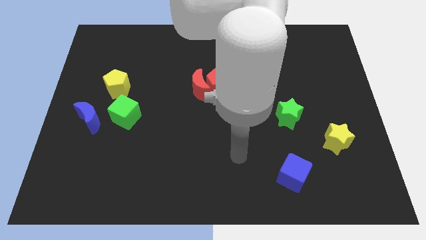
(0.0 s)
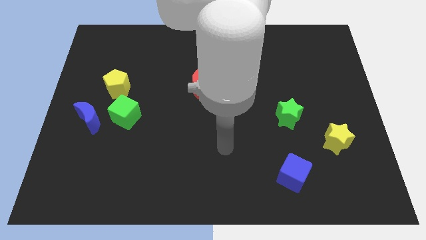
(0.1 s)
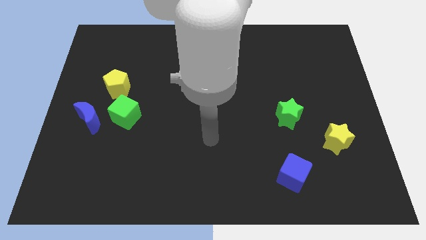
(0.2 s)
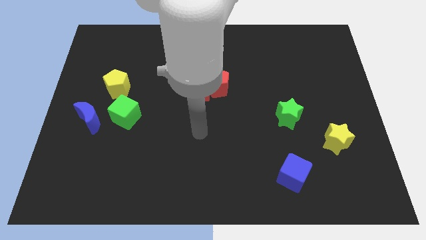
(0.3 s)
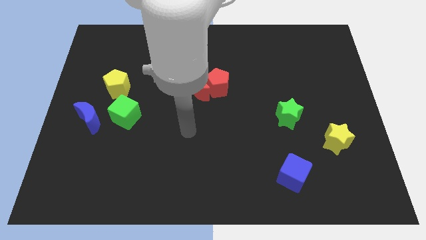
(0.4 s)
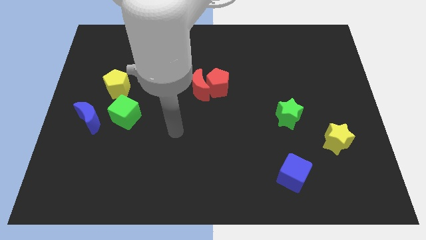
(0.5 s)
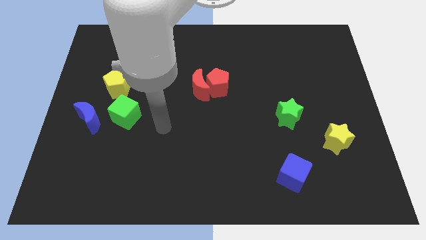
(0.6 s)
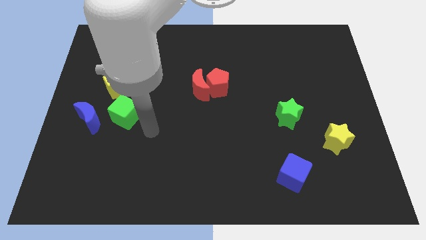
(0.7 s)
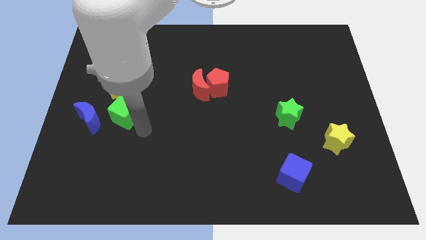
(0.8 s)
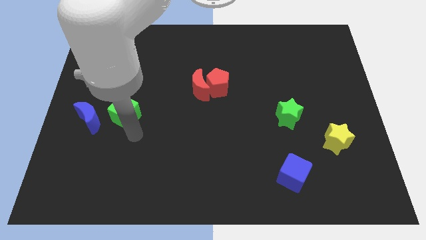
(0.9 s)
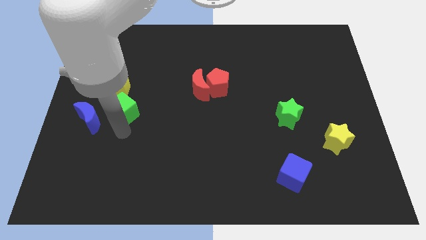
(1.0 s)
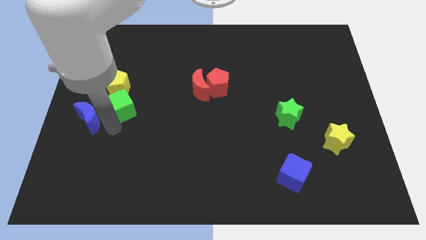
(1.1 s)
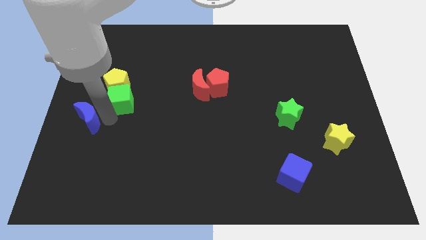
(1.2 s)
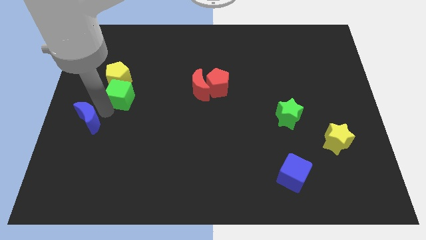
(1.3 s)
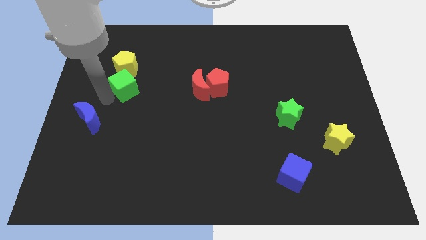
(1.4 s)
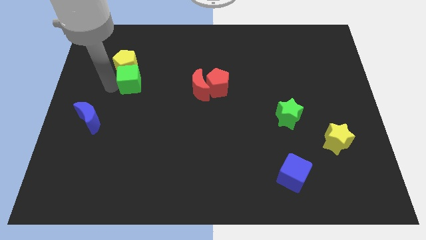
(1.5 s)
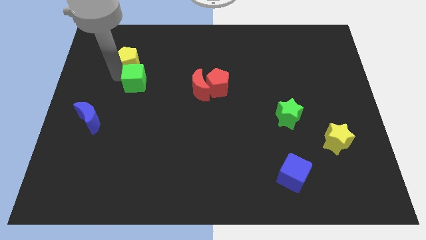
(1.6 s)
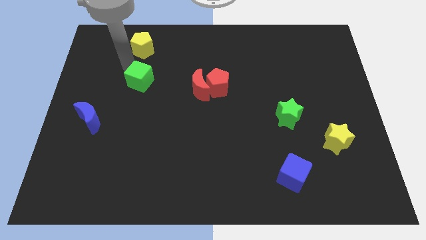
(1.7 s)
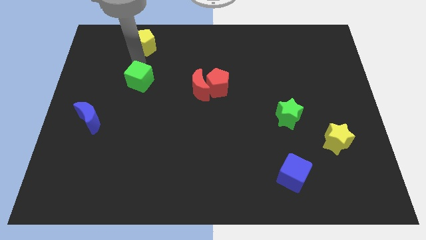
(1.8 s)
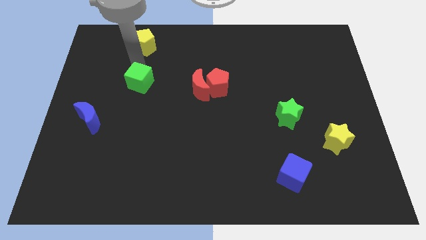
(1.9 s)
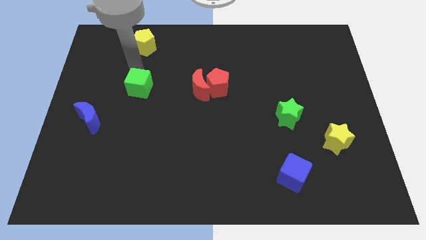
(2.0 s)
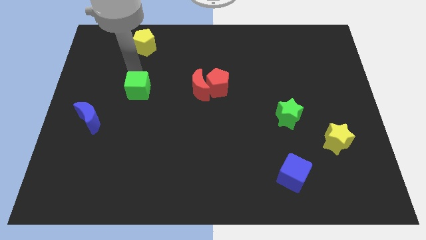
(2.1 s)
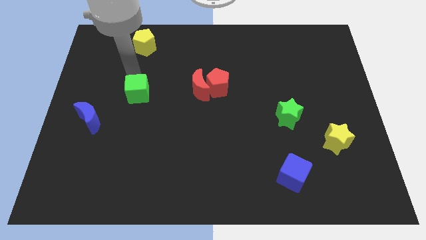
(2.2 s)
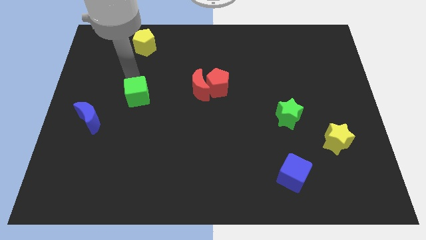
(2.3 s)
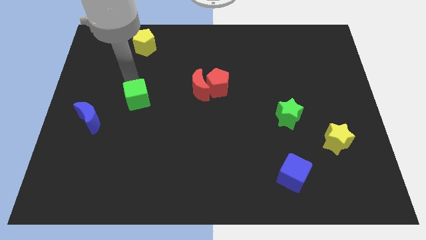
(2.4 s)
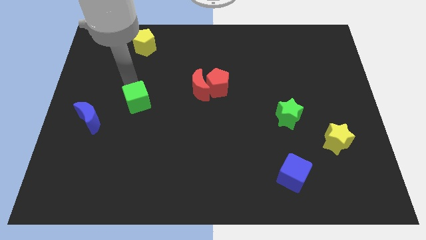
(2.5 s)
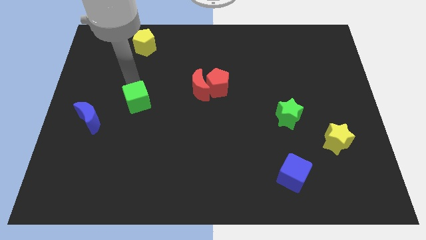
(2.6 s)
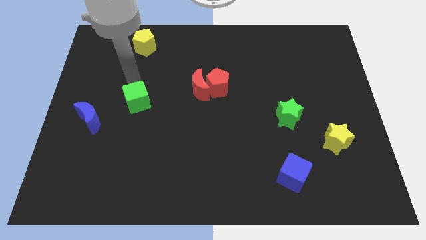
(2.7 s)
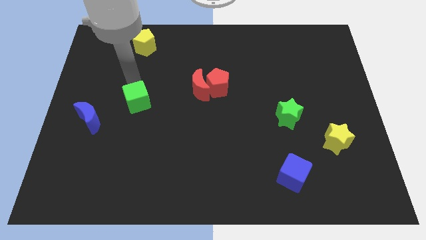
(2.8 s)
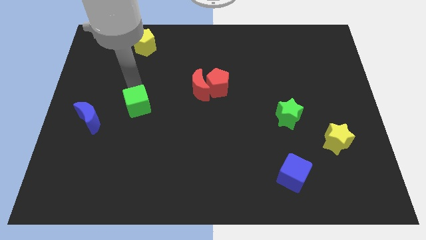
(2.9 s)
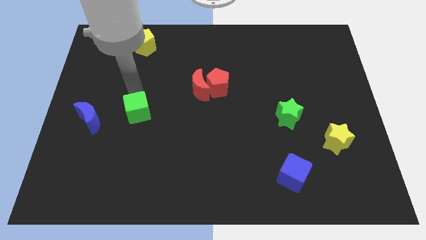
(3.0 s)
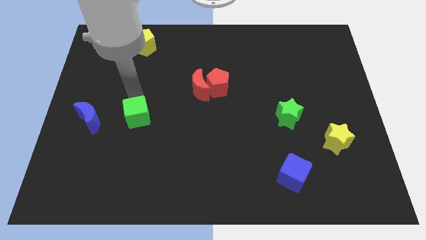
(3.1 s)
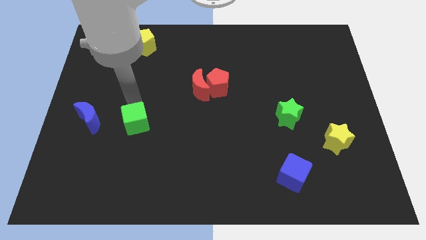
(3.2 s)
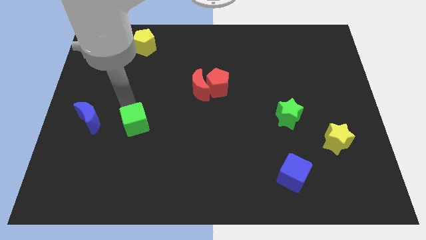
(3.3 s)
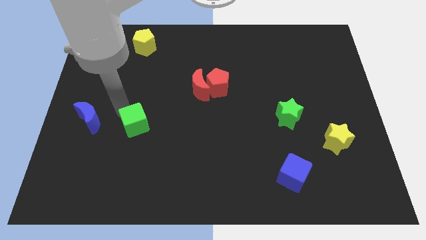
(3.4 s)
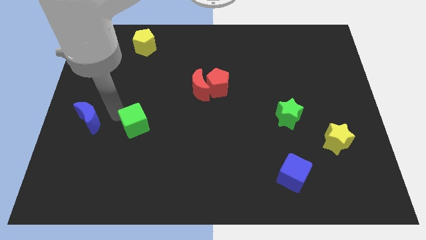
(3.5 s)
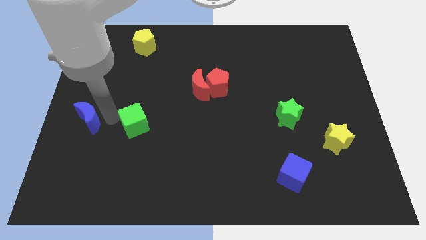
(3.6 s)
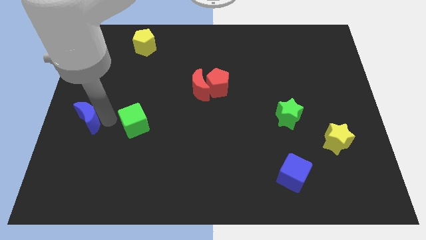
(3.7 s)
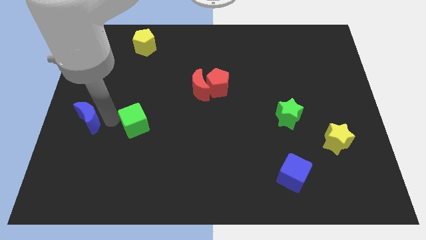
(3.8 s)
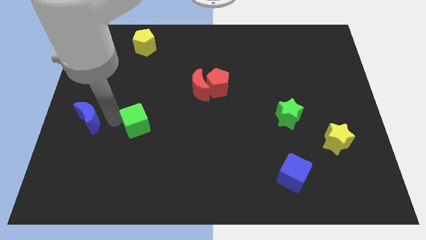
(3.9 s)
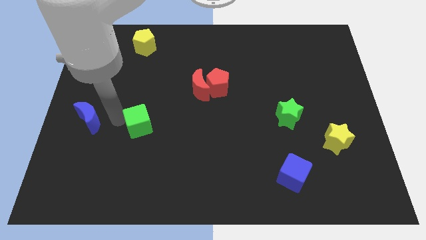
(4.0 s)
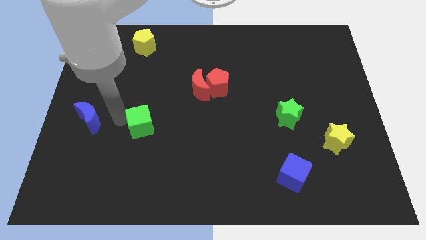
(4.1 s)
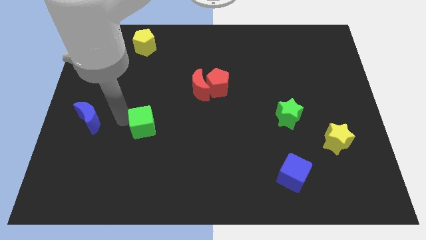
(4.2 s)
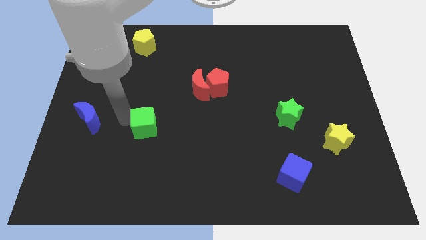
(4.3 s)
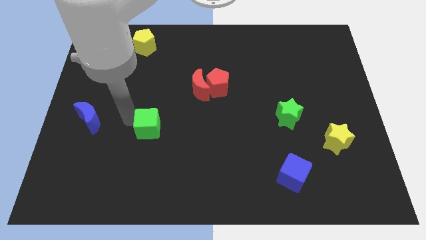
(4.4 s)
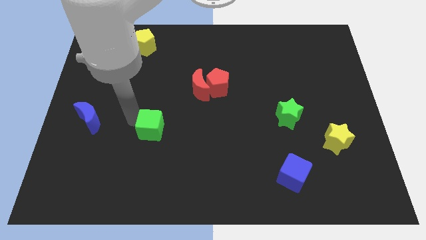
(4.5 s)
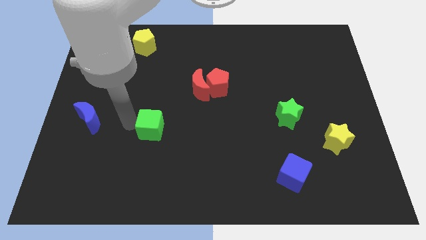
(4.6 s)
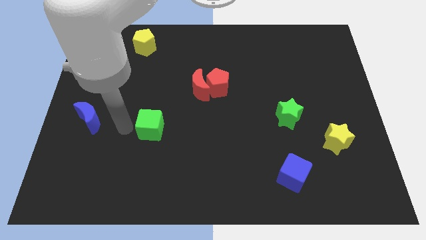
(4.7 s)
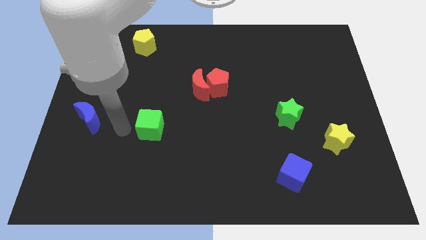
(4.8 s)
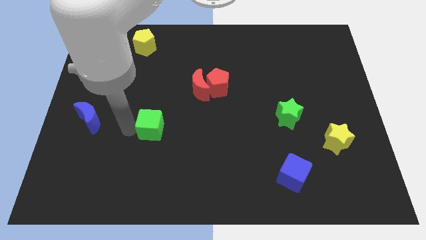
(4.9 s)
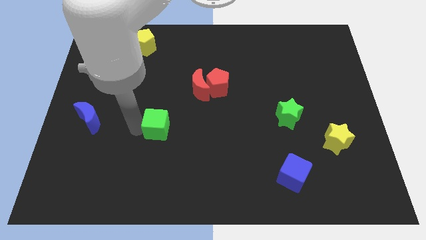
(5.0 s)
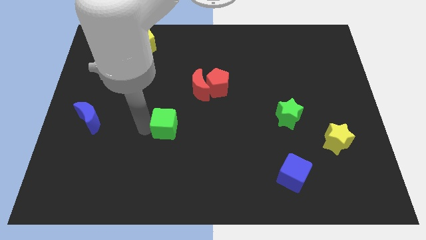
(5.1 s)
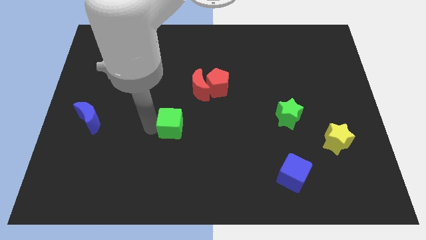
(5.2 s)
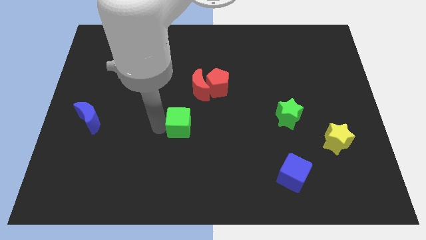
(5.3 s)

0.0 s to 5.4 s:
push the green cube below the red moon

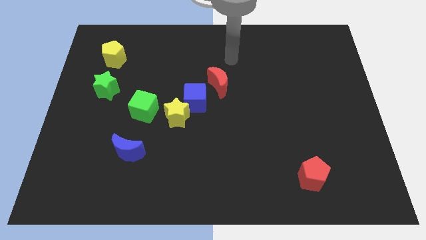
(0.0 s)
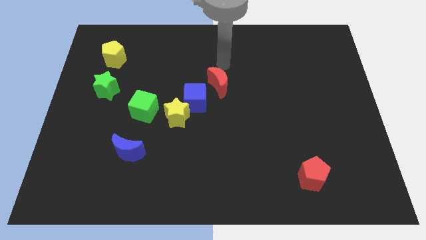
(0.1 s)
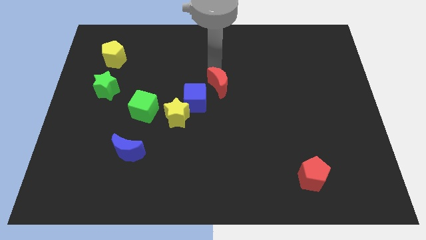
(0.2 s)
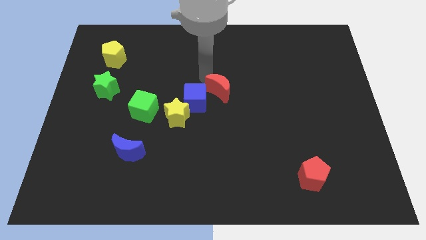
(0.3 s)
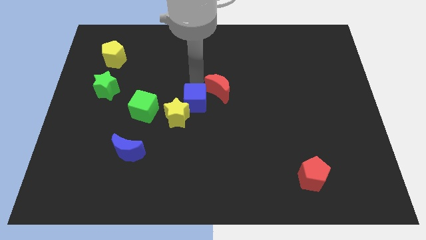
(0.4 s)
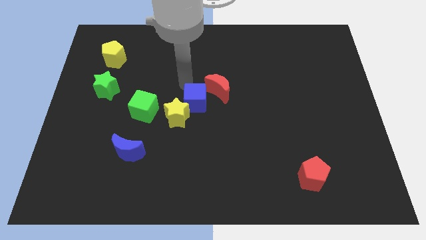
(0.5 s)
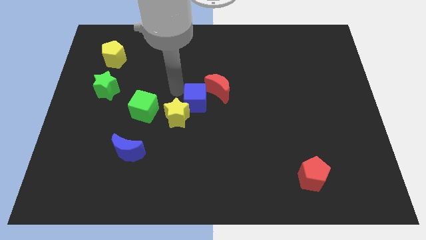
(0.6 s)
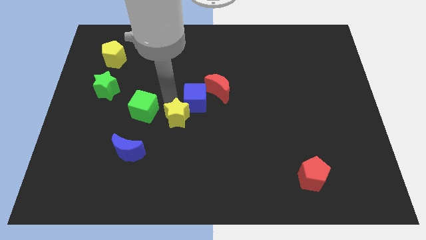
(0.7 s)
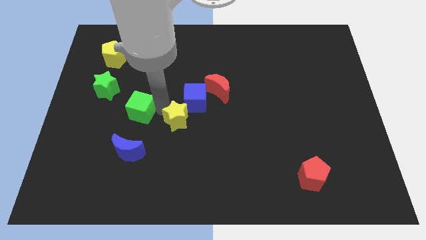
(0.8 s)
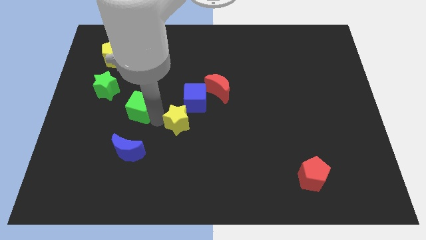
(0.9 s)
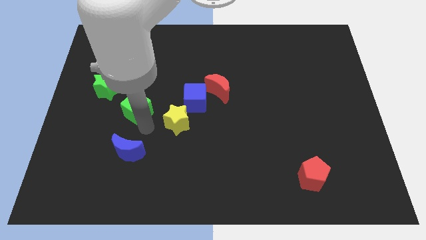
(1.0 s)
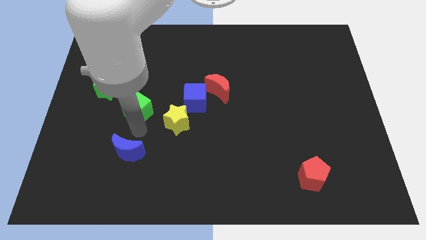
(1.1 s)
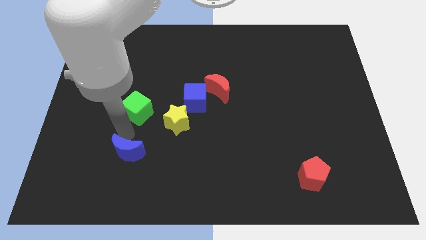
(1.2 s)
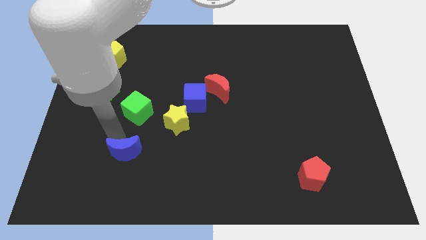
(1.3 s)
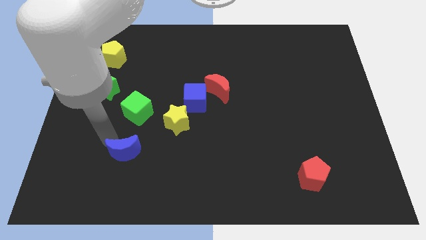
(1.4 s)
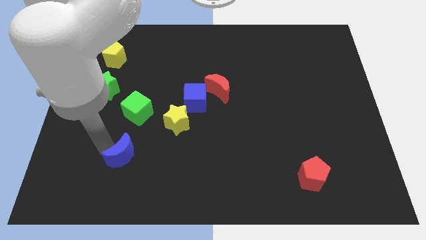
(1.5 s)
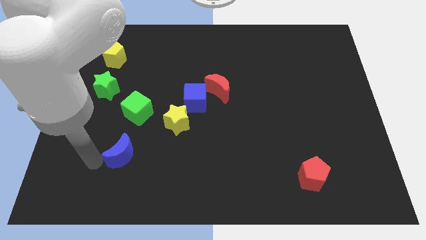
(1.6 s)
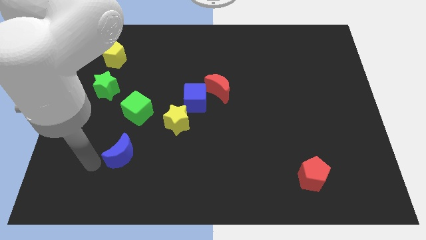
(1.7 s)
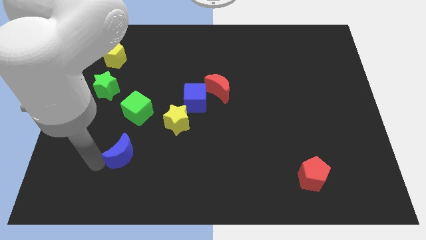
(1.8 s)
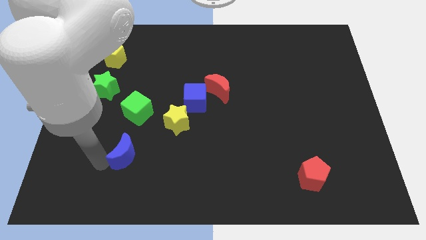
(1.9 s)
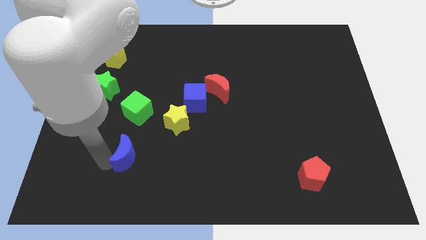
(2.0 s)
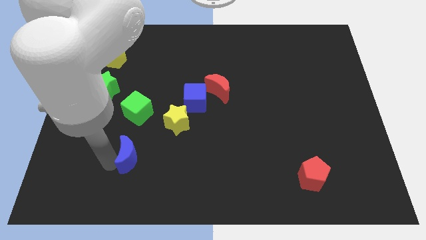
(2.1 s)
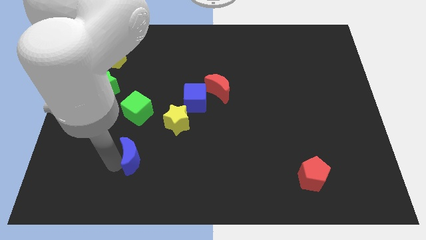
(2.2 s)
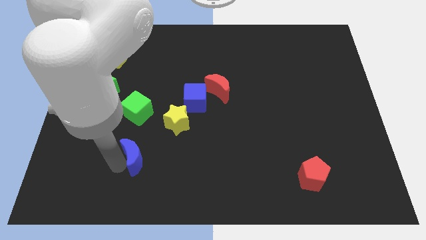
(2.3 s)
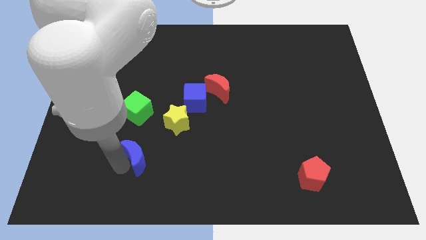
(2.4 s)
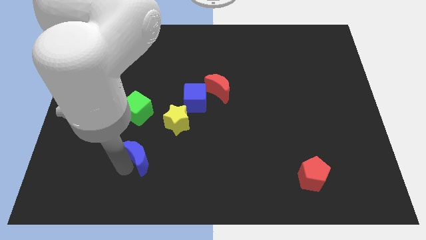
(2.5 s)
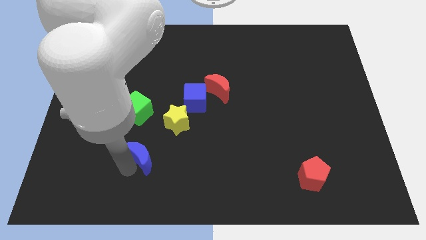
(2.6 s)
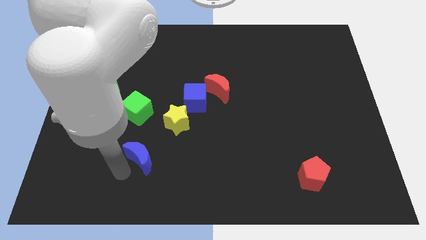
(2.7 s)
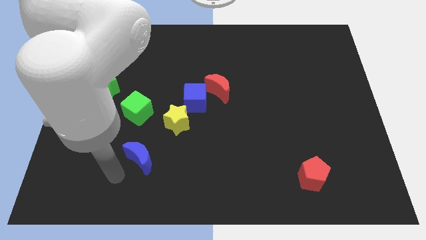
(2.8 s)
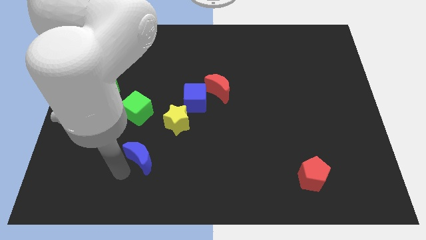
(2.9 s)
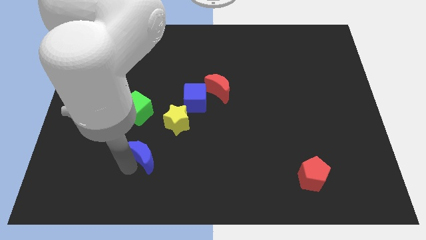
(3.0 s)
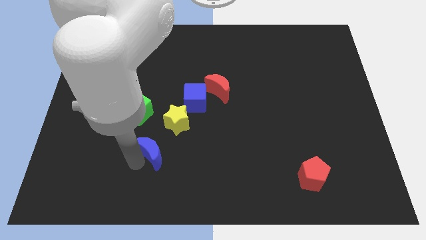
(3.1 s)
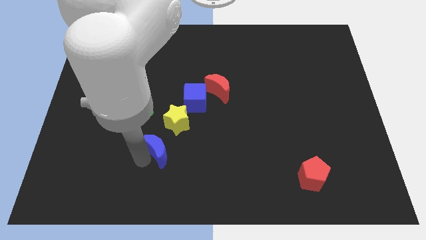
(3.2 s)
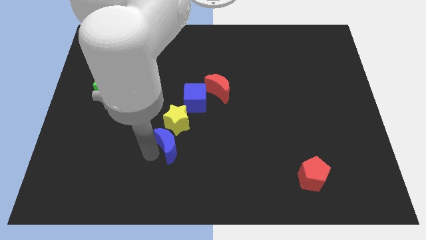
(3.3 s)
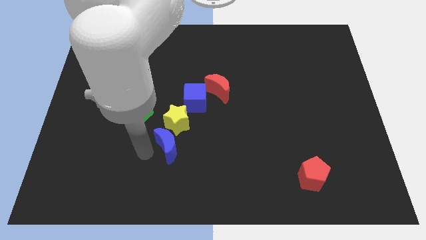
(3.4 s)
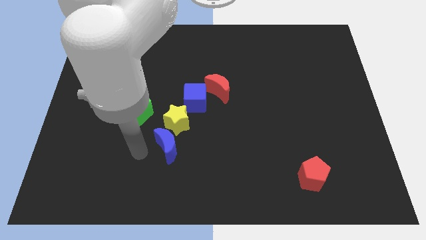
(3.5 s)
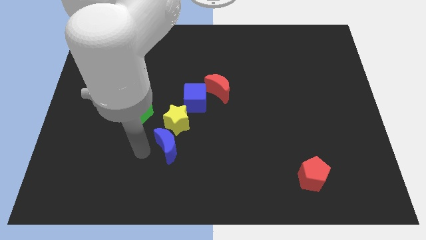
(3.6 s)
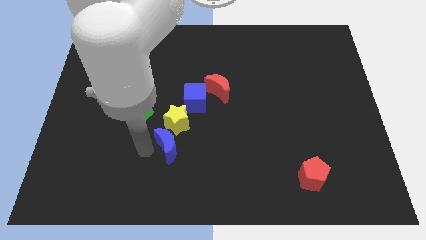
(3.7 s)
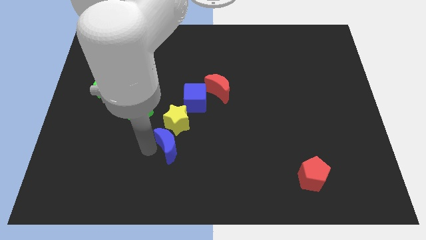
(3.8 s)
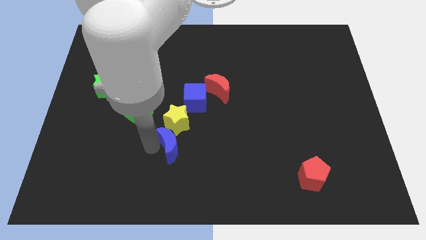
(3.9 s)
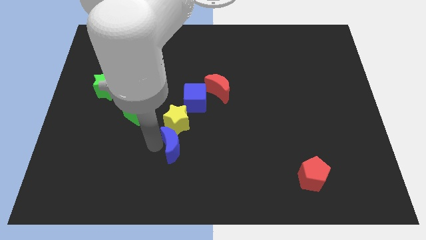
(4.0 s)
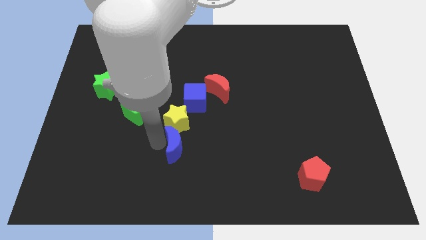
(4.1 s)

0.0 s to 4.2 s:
move the blue moon diagonally down and to the right of the yellow star
